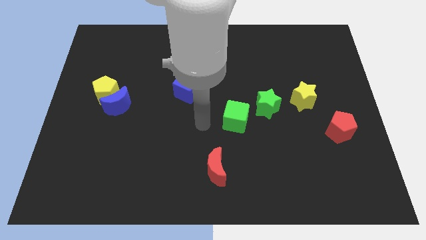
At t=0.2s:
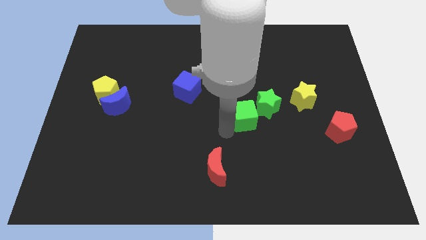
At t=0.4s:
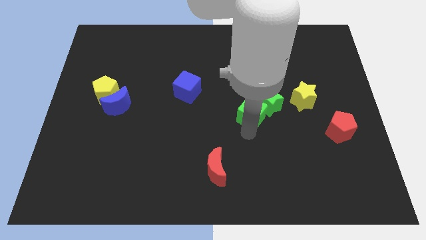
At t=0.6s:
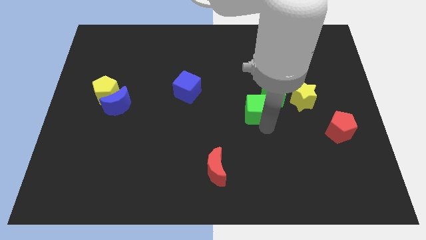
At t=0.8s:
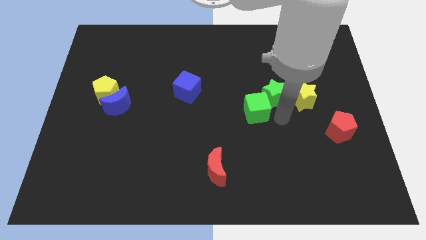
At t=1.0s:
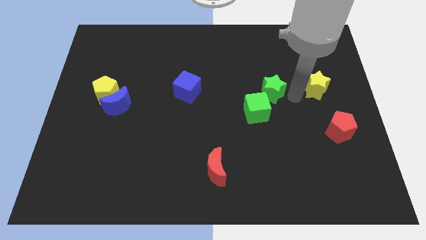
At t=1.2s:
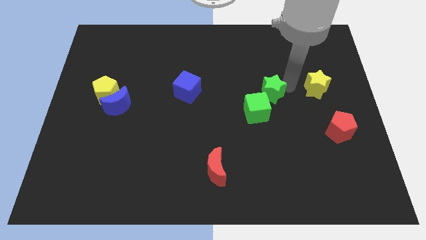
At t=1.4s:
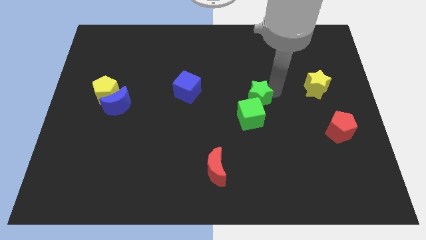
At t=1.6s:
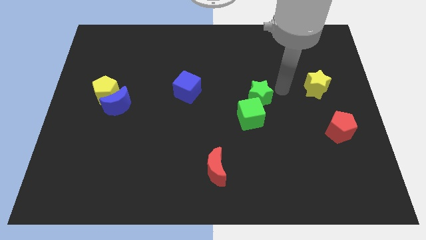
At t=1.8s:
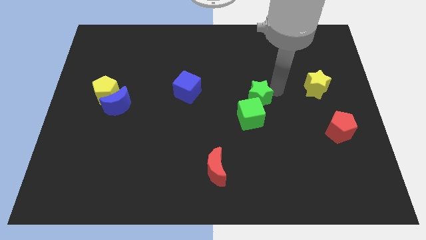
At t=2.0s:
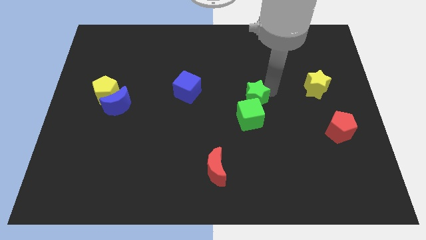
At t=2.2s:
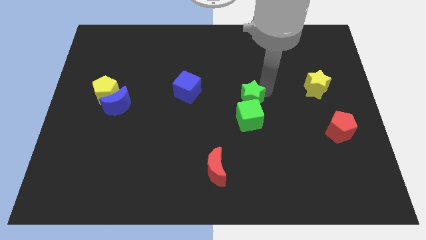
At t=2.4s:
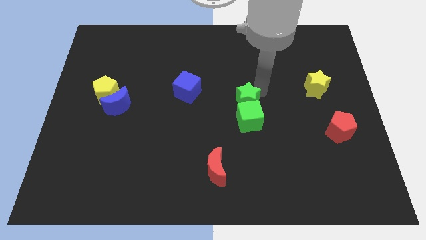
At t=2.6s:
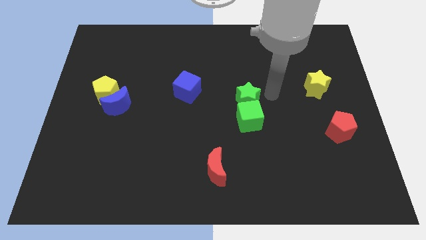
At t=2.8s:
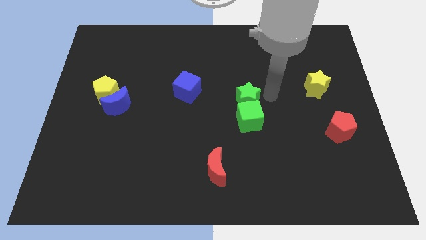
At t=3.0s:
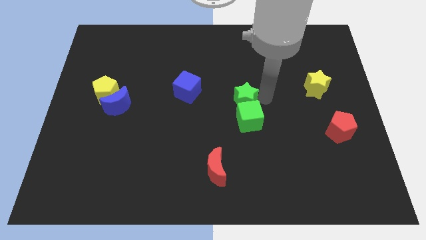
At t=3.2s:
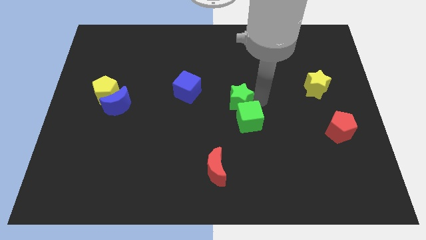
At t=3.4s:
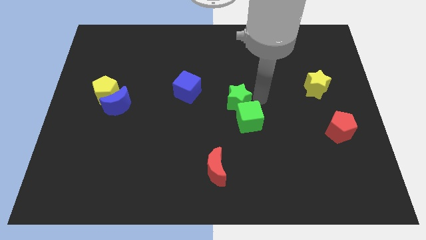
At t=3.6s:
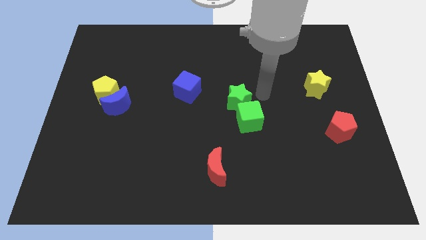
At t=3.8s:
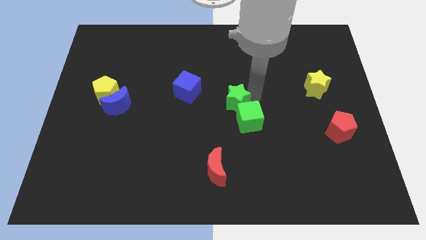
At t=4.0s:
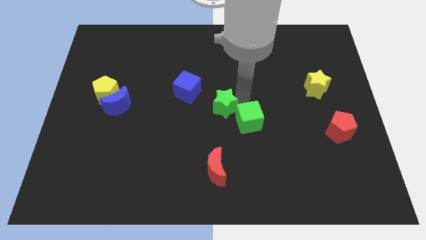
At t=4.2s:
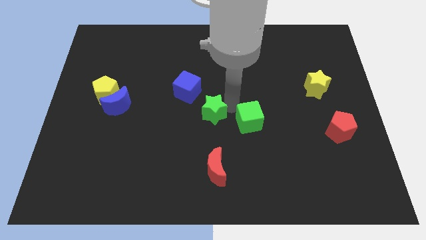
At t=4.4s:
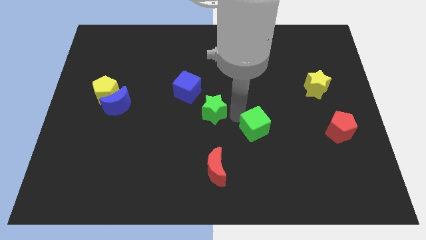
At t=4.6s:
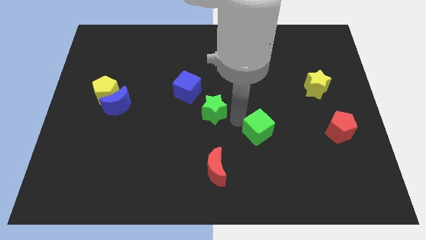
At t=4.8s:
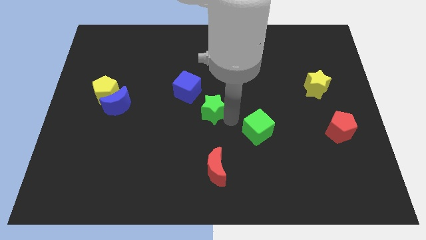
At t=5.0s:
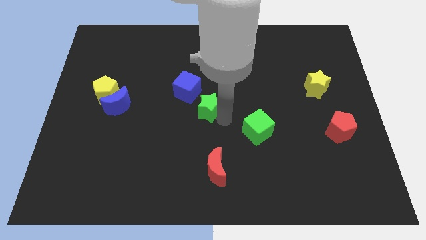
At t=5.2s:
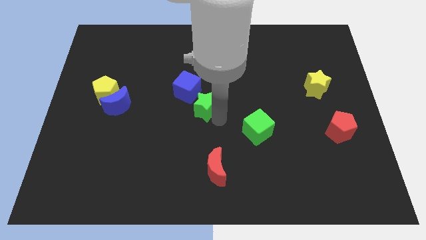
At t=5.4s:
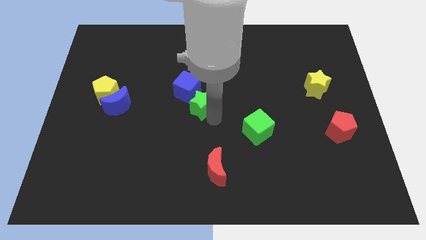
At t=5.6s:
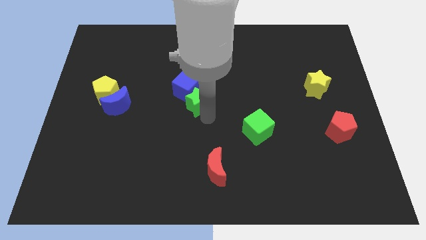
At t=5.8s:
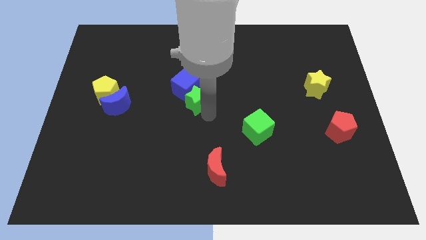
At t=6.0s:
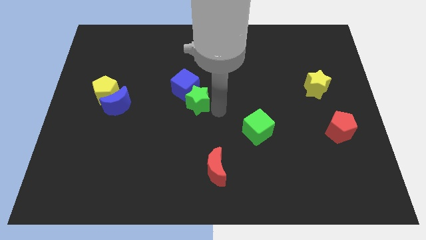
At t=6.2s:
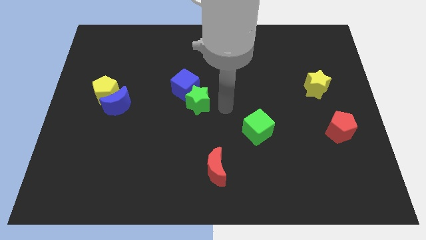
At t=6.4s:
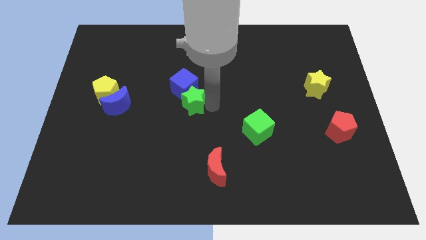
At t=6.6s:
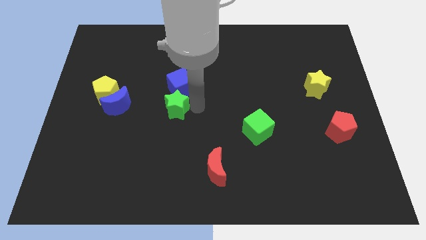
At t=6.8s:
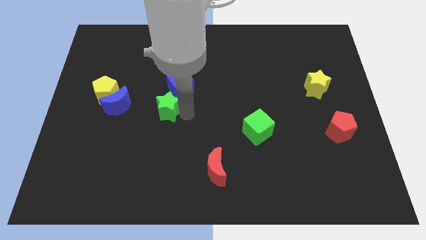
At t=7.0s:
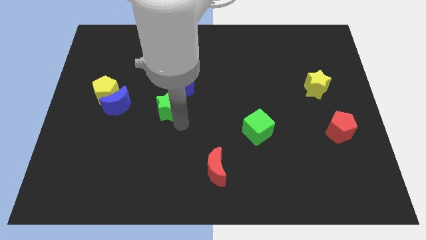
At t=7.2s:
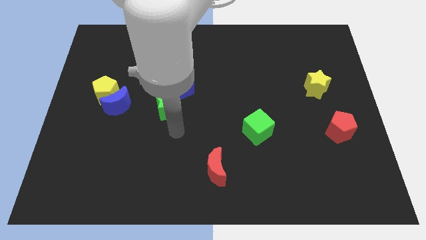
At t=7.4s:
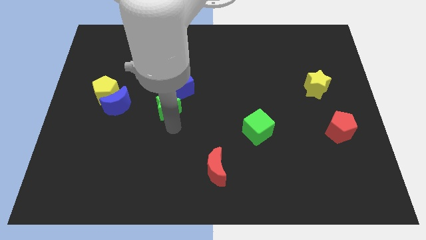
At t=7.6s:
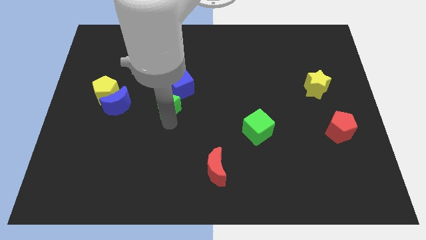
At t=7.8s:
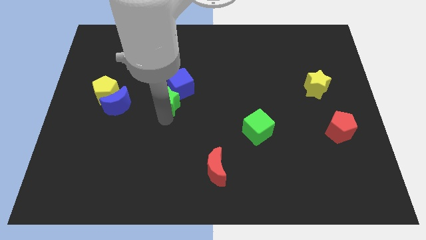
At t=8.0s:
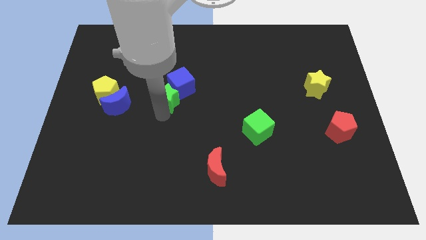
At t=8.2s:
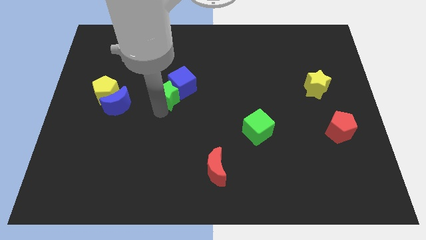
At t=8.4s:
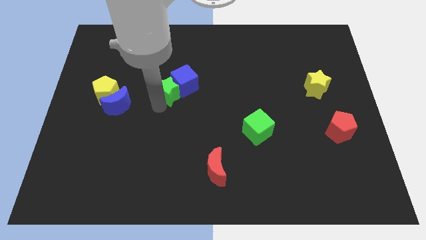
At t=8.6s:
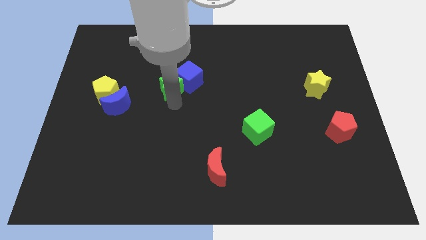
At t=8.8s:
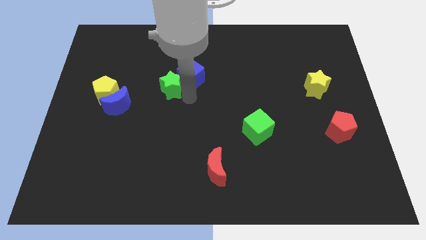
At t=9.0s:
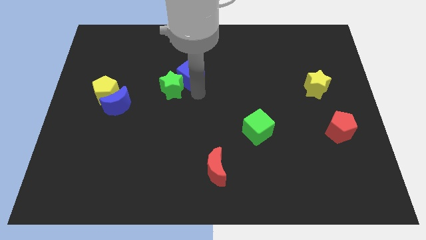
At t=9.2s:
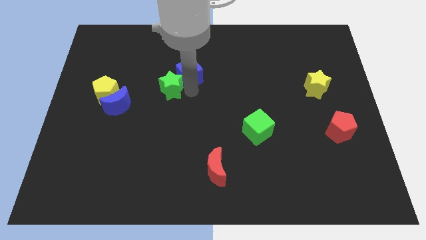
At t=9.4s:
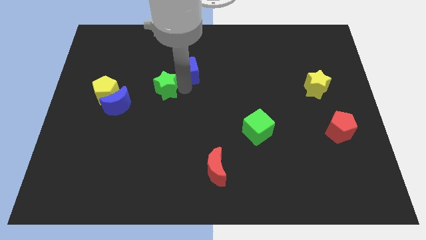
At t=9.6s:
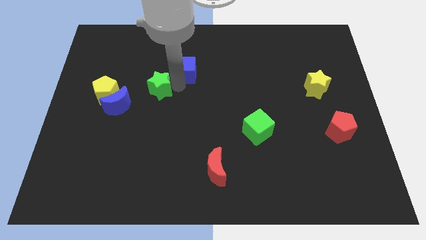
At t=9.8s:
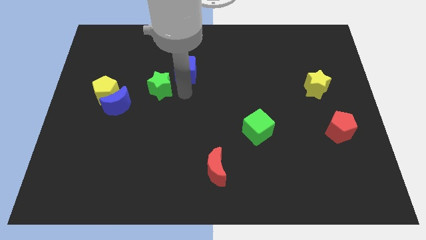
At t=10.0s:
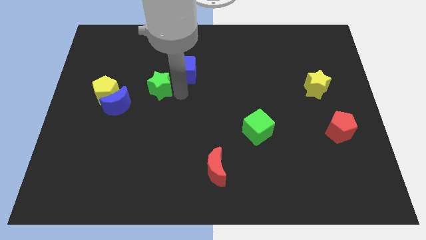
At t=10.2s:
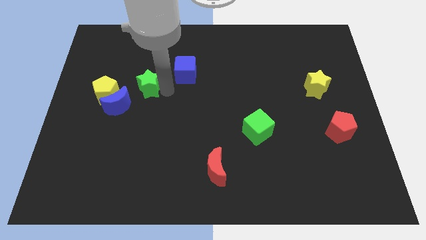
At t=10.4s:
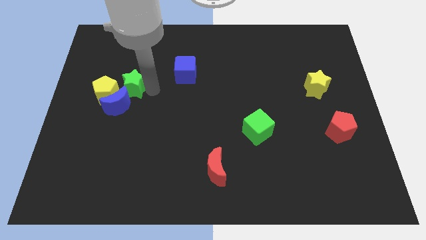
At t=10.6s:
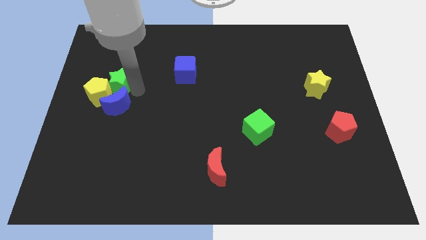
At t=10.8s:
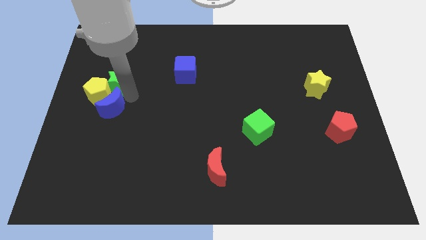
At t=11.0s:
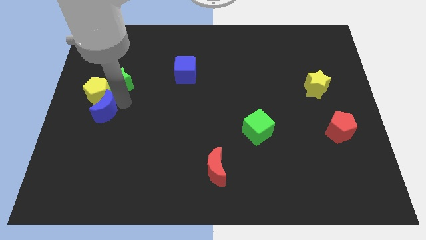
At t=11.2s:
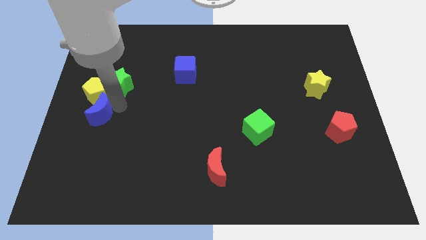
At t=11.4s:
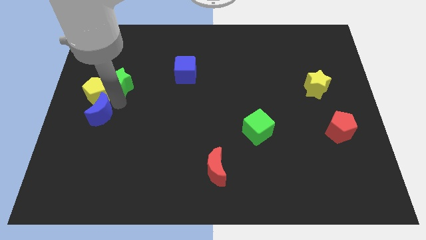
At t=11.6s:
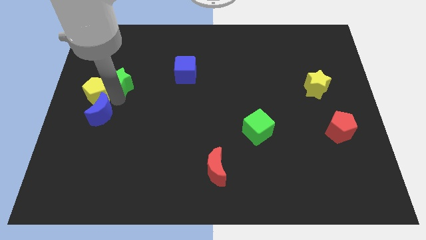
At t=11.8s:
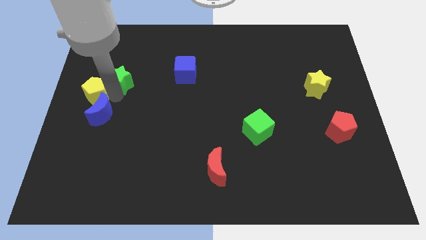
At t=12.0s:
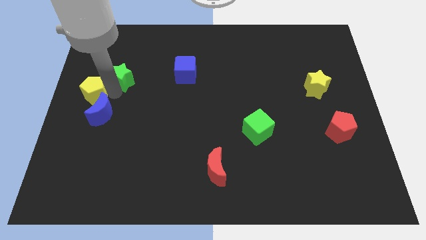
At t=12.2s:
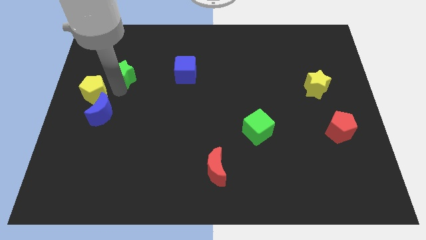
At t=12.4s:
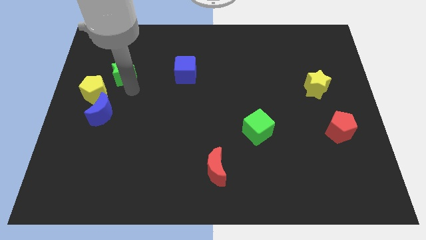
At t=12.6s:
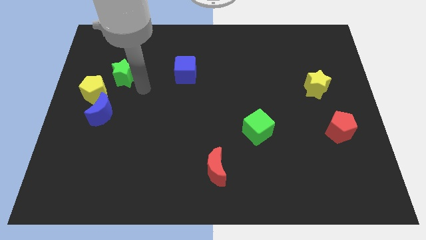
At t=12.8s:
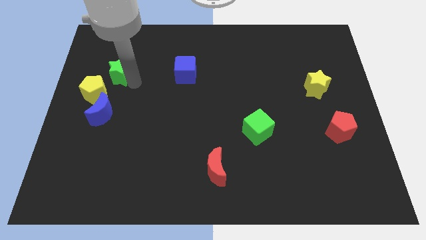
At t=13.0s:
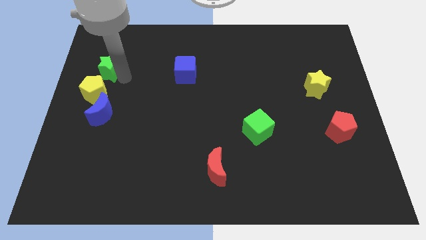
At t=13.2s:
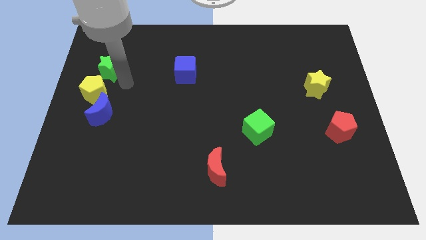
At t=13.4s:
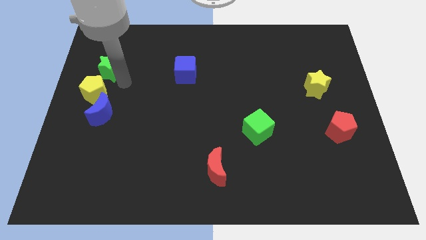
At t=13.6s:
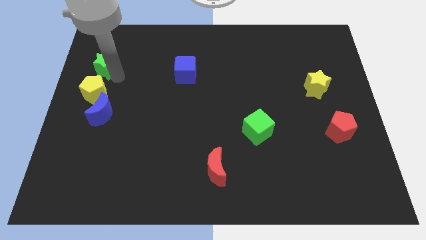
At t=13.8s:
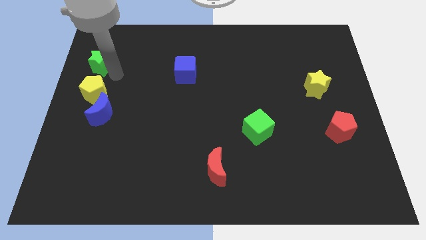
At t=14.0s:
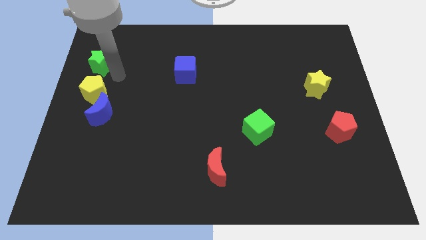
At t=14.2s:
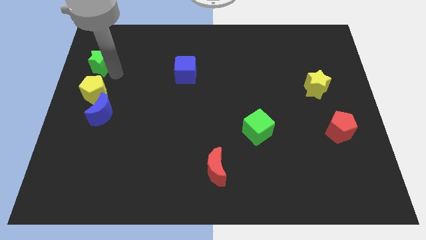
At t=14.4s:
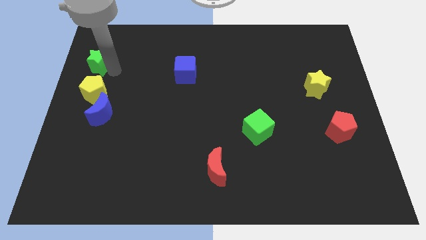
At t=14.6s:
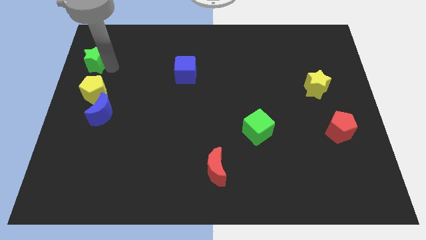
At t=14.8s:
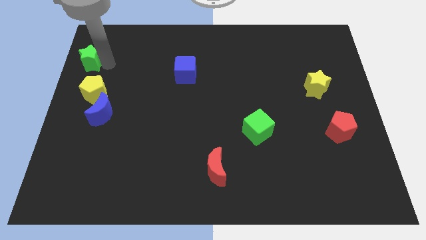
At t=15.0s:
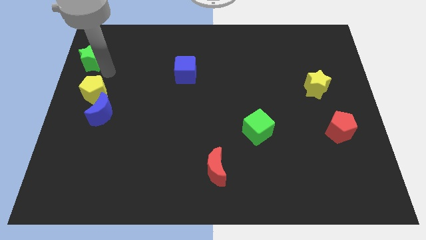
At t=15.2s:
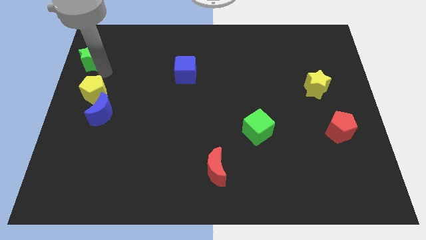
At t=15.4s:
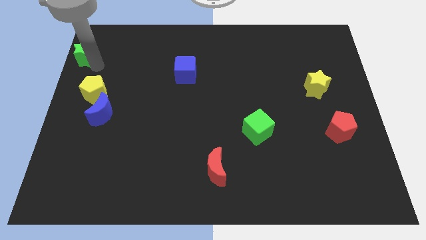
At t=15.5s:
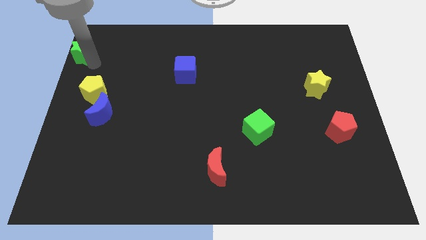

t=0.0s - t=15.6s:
move the green star to the top left
